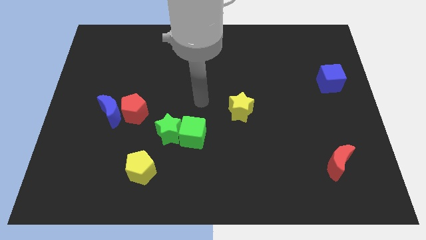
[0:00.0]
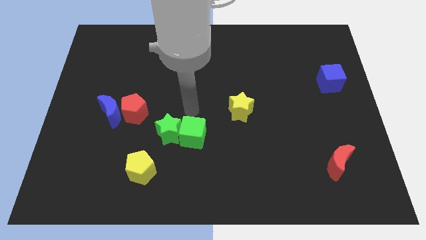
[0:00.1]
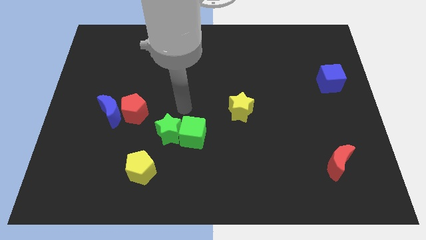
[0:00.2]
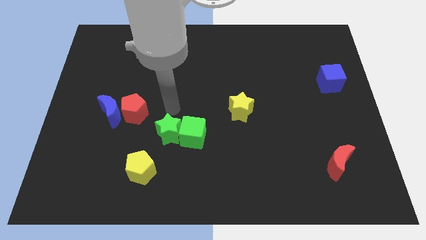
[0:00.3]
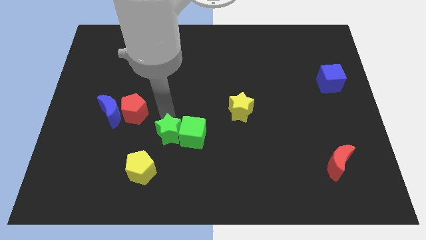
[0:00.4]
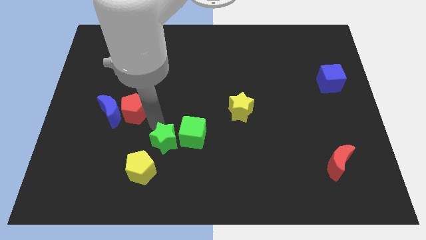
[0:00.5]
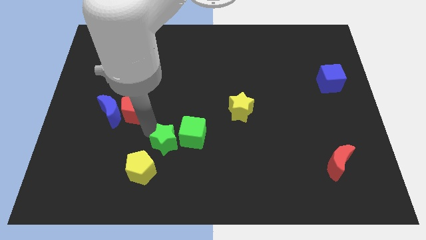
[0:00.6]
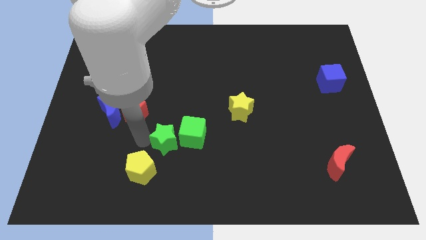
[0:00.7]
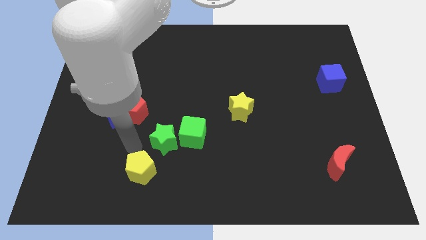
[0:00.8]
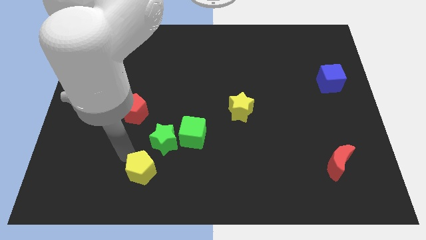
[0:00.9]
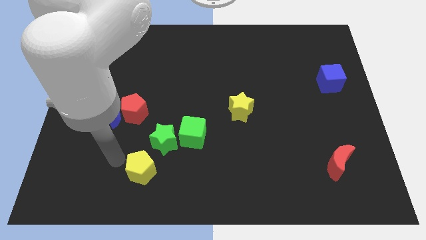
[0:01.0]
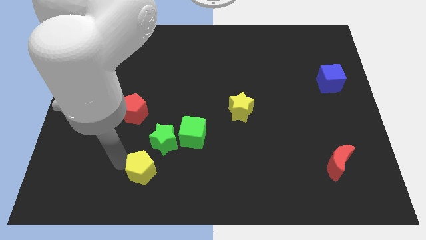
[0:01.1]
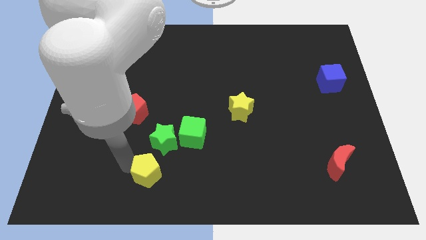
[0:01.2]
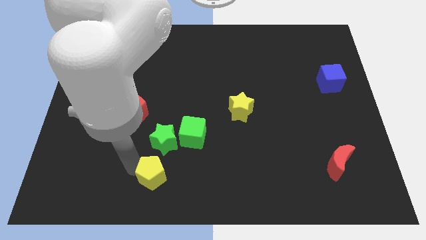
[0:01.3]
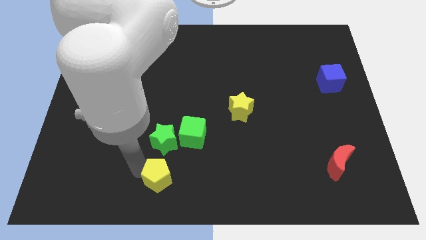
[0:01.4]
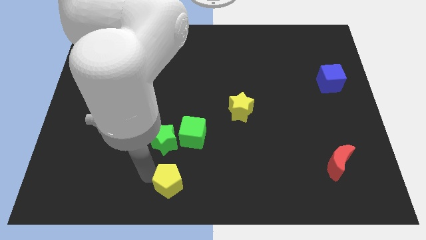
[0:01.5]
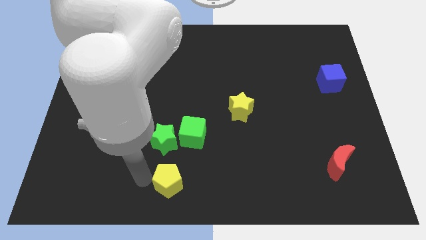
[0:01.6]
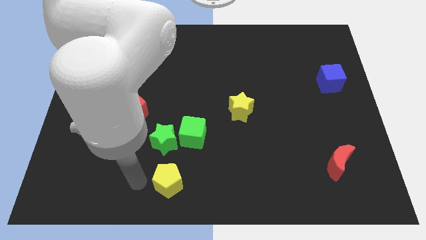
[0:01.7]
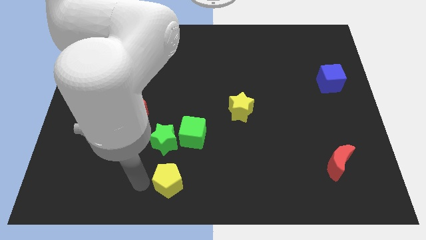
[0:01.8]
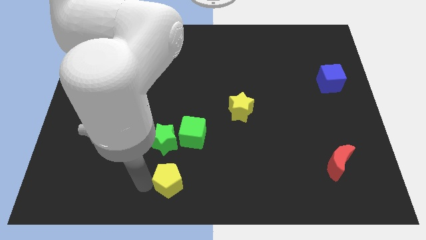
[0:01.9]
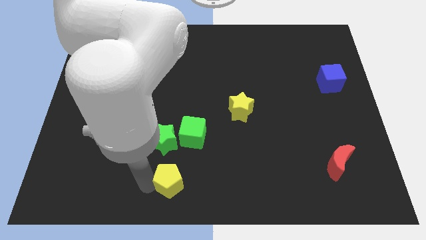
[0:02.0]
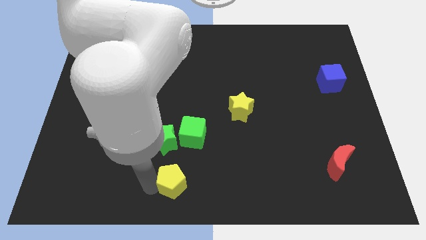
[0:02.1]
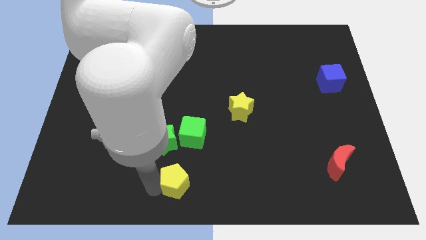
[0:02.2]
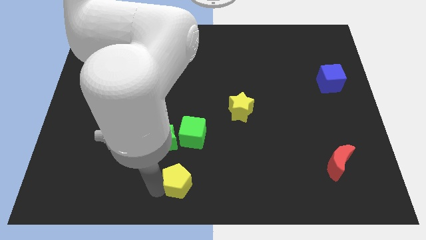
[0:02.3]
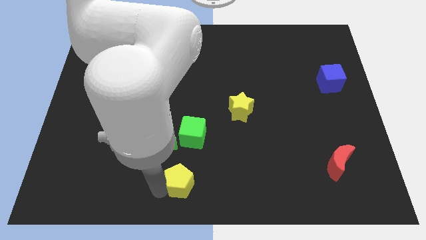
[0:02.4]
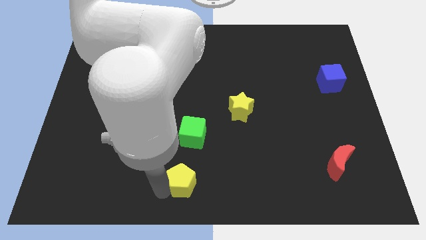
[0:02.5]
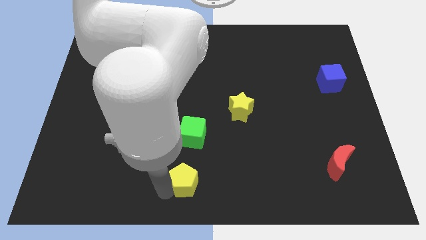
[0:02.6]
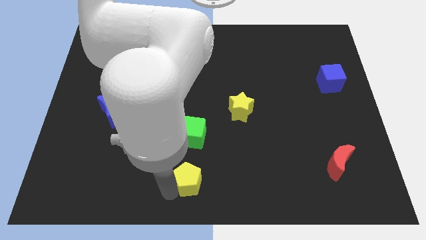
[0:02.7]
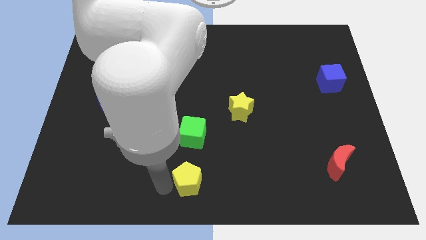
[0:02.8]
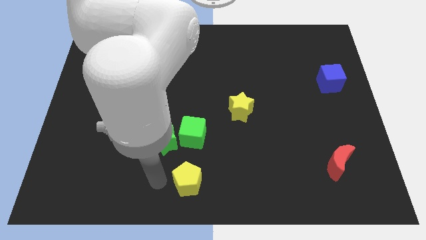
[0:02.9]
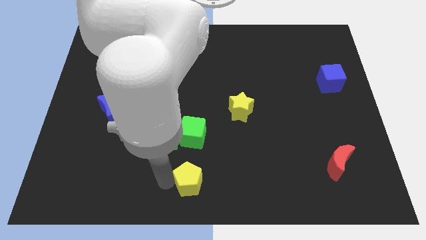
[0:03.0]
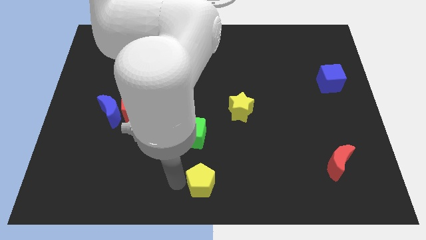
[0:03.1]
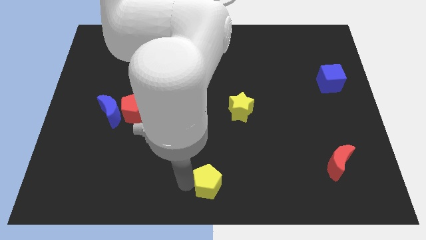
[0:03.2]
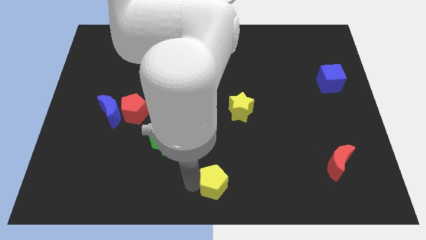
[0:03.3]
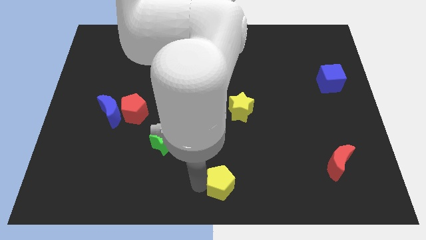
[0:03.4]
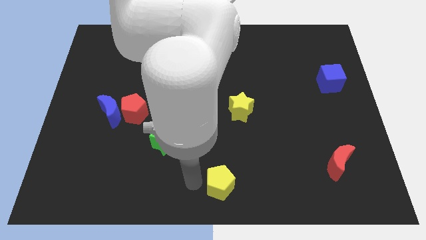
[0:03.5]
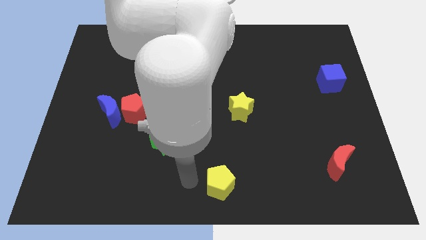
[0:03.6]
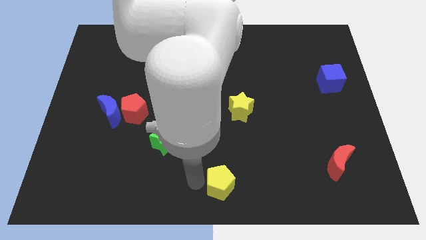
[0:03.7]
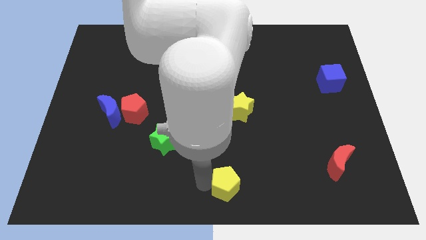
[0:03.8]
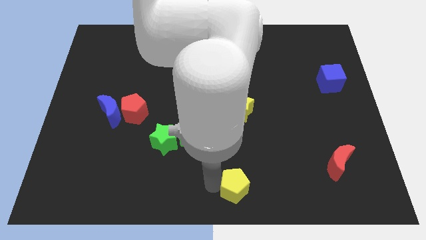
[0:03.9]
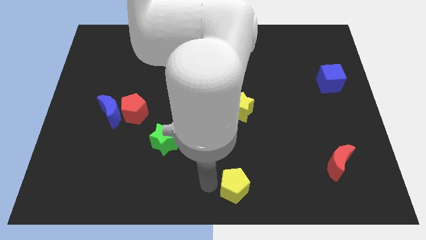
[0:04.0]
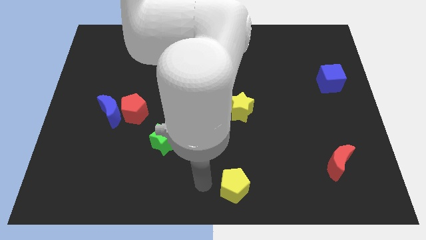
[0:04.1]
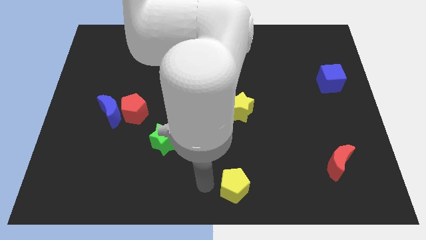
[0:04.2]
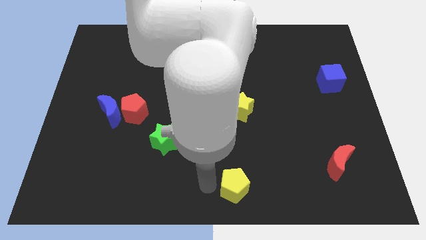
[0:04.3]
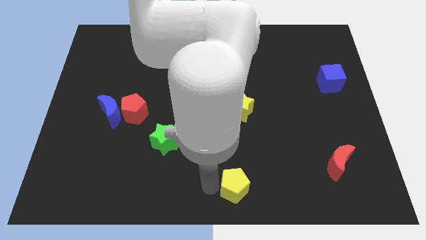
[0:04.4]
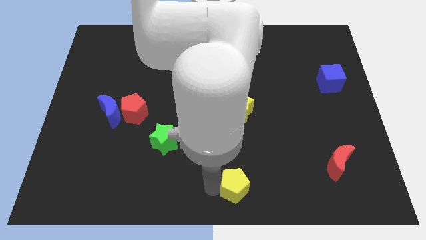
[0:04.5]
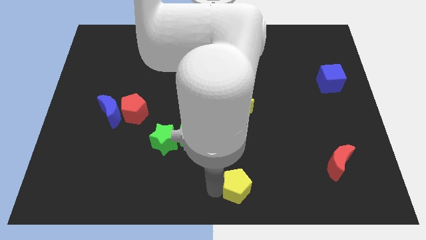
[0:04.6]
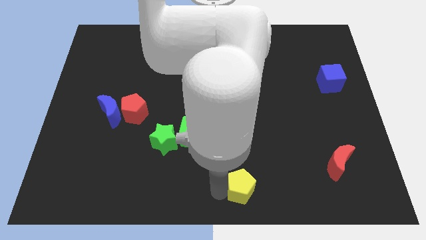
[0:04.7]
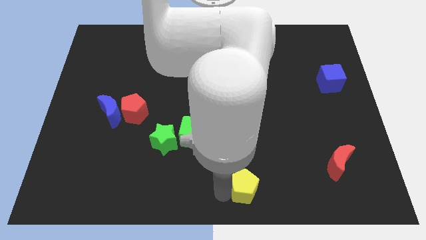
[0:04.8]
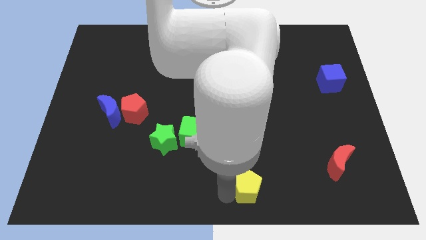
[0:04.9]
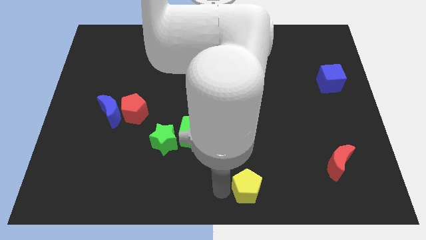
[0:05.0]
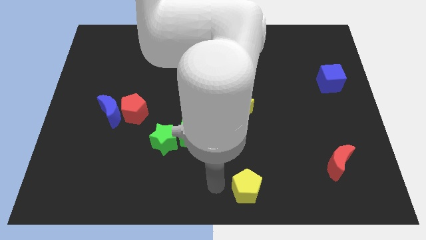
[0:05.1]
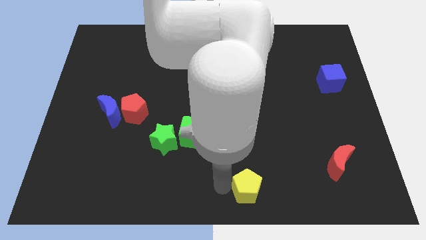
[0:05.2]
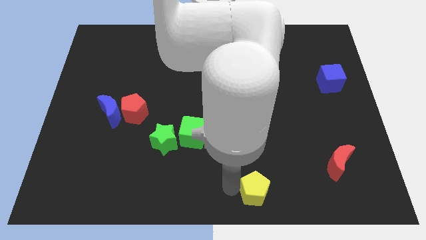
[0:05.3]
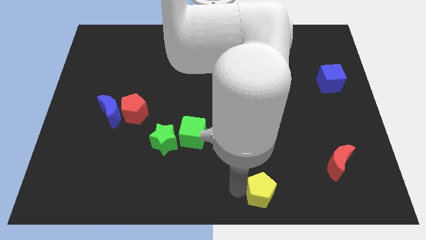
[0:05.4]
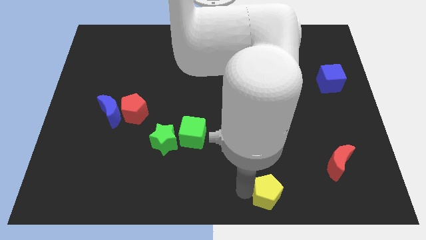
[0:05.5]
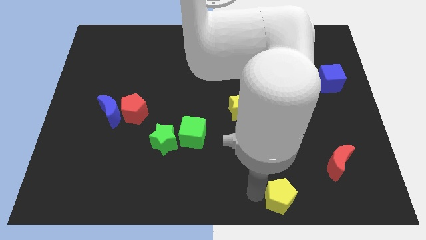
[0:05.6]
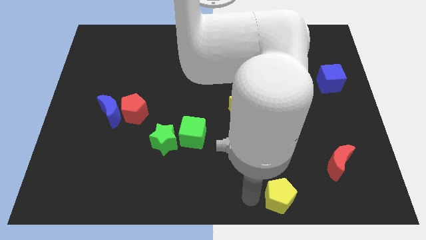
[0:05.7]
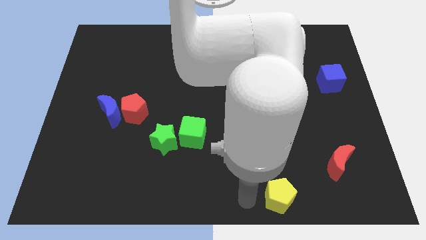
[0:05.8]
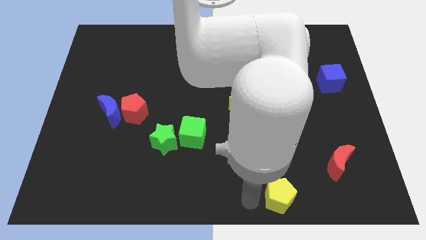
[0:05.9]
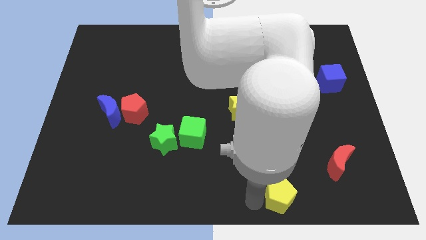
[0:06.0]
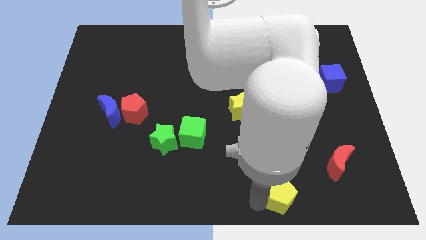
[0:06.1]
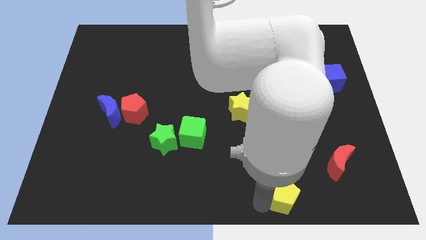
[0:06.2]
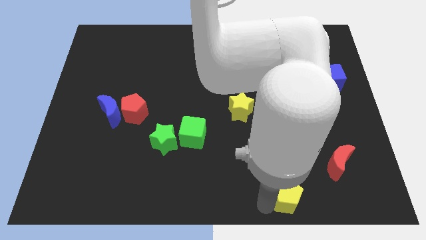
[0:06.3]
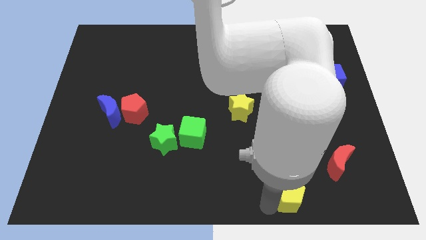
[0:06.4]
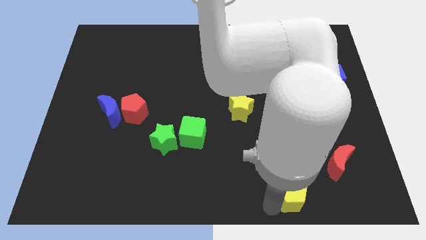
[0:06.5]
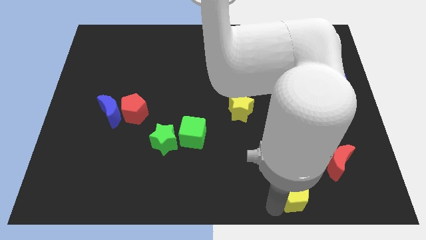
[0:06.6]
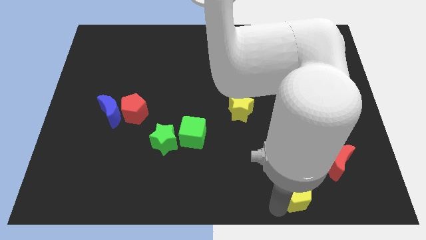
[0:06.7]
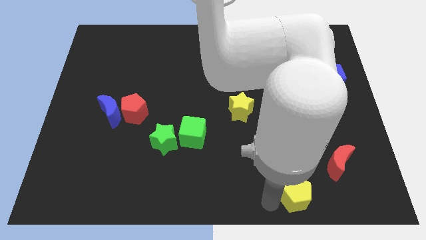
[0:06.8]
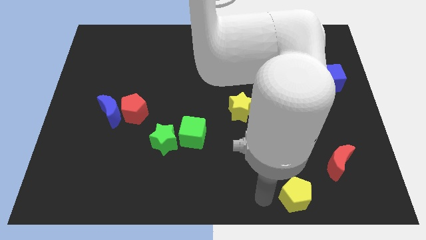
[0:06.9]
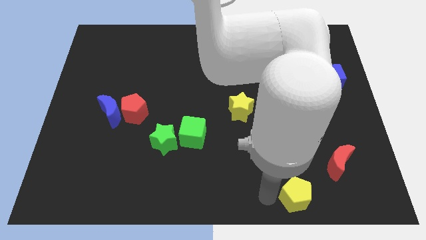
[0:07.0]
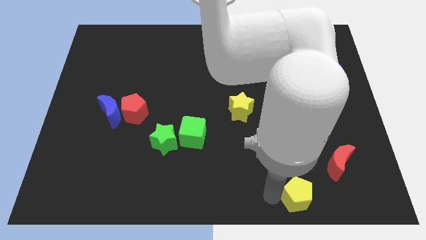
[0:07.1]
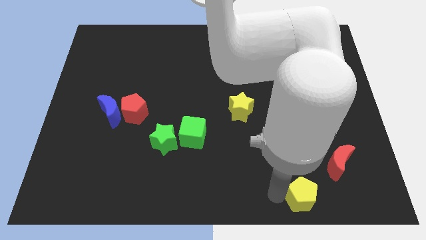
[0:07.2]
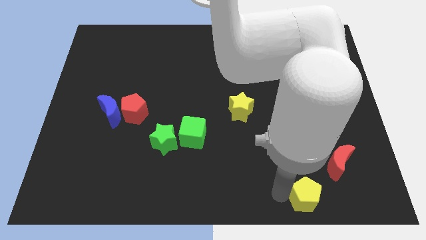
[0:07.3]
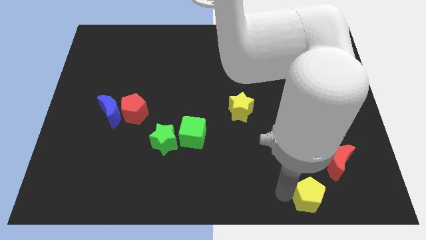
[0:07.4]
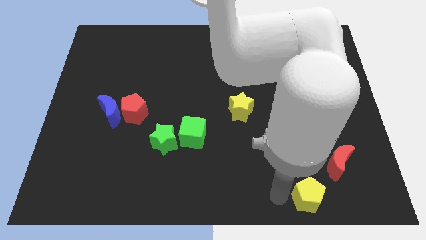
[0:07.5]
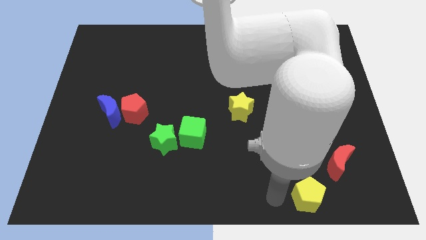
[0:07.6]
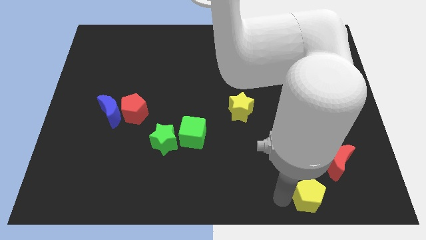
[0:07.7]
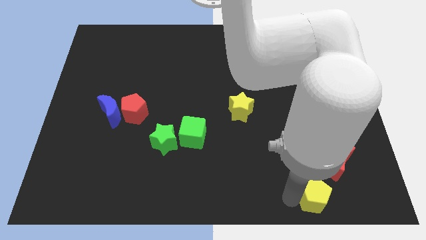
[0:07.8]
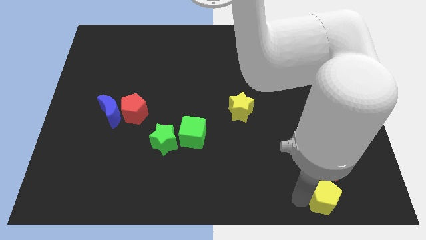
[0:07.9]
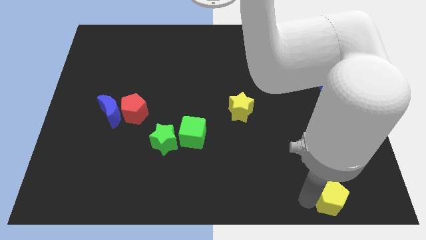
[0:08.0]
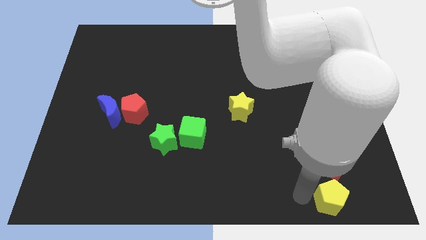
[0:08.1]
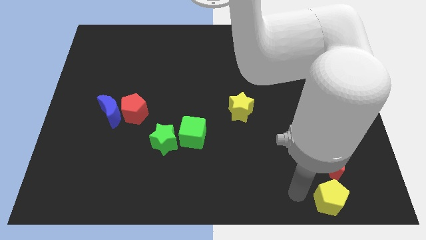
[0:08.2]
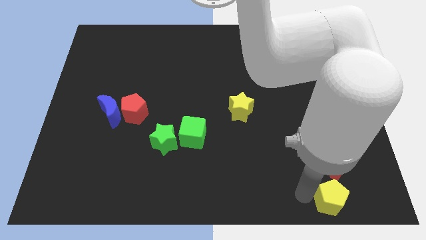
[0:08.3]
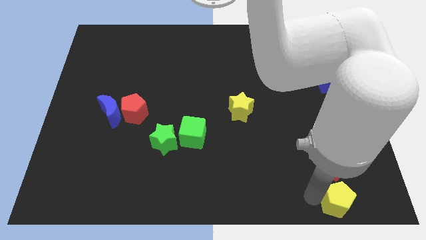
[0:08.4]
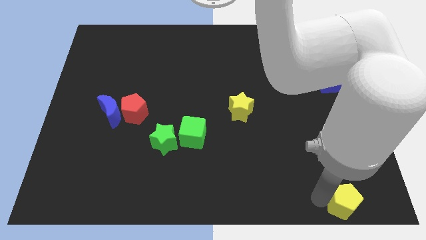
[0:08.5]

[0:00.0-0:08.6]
put the yellow pentagon to the bottom right
